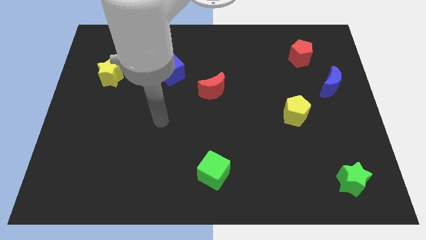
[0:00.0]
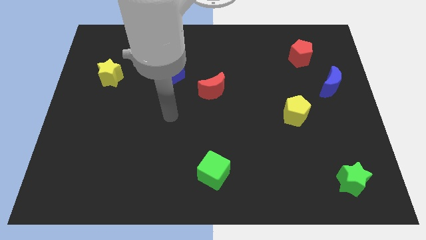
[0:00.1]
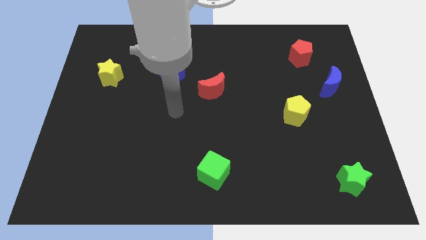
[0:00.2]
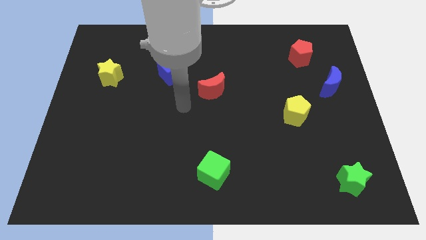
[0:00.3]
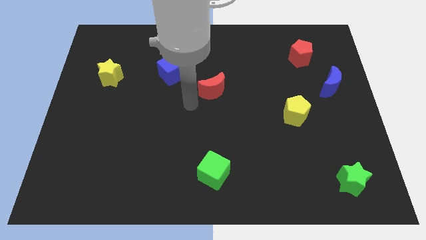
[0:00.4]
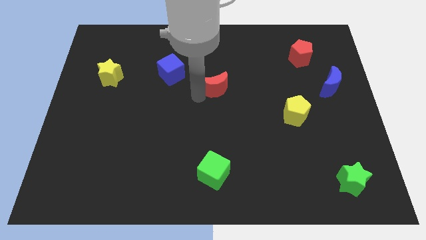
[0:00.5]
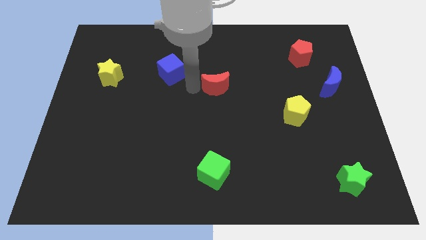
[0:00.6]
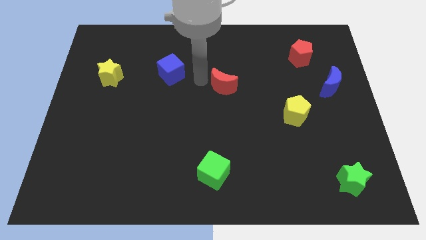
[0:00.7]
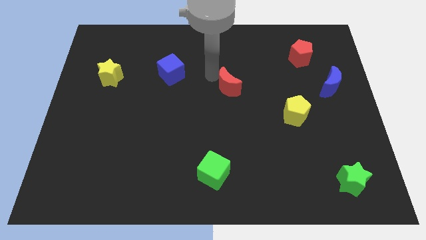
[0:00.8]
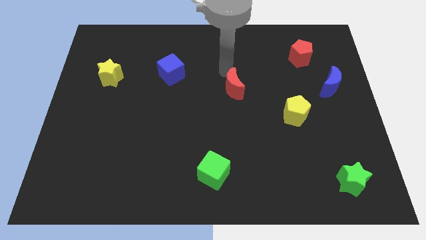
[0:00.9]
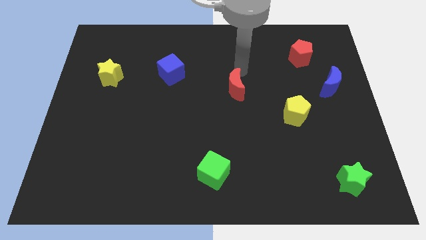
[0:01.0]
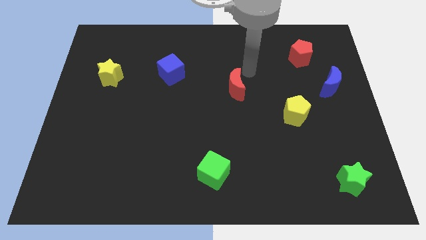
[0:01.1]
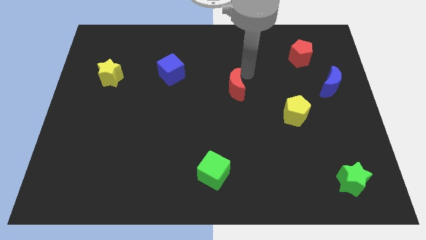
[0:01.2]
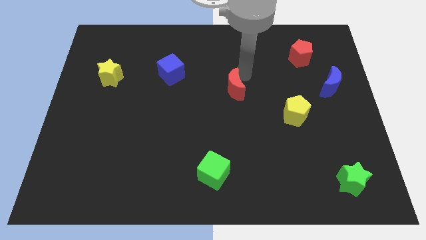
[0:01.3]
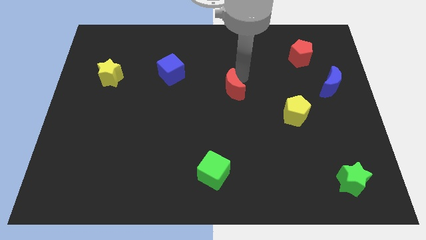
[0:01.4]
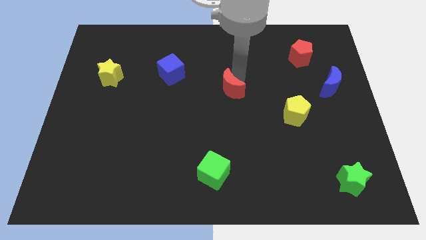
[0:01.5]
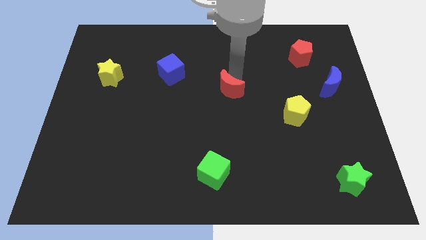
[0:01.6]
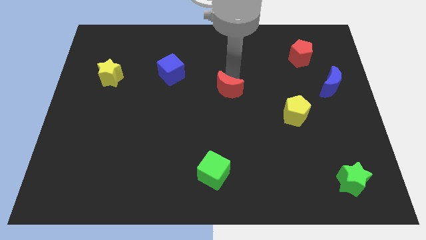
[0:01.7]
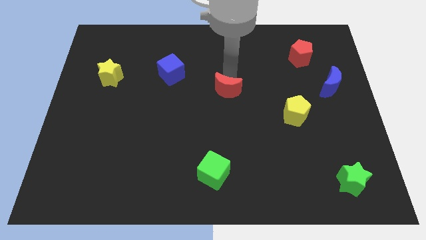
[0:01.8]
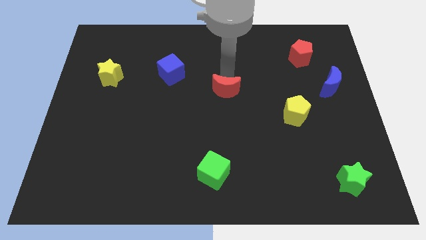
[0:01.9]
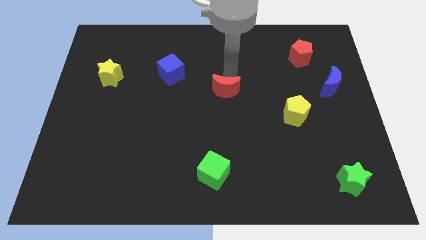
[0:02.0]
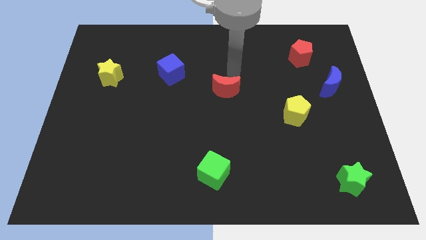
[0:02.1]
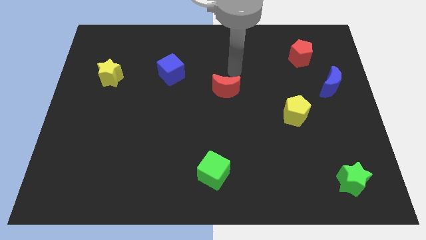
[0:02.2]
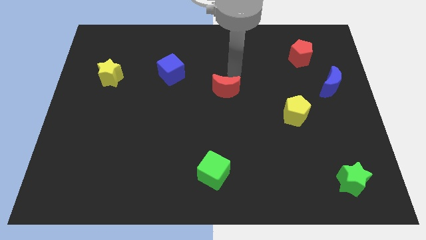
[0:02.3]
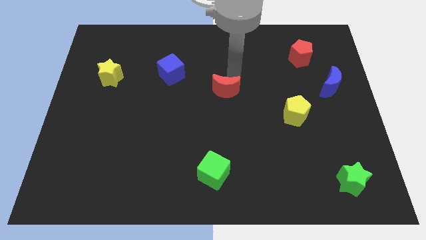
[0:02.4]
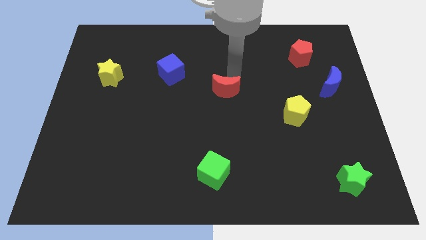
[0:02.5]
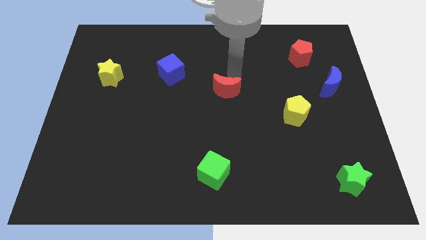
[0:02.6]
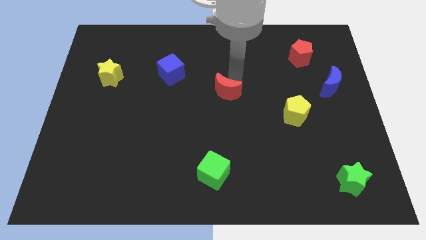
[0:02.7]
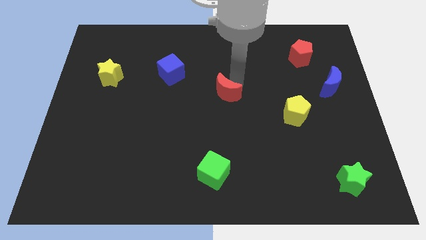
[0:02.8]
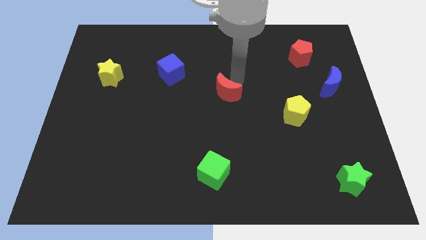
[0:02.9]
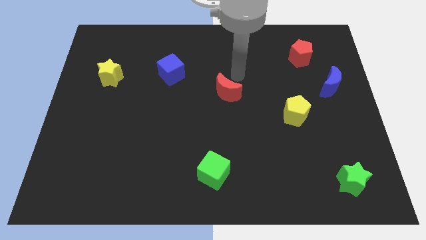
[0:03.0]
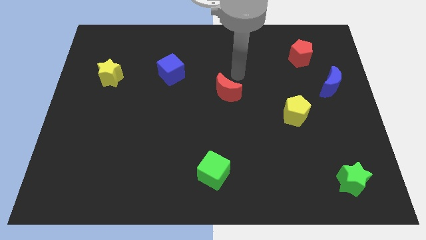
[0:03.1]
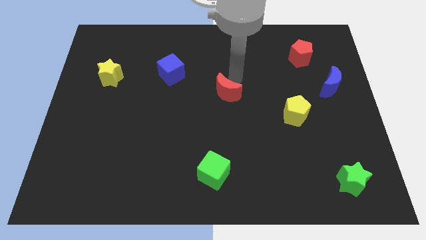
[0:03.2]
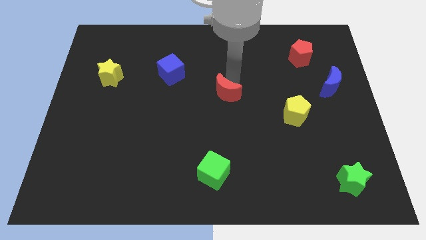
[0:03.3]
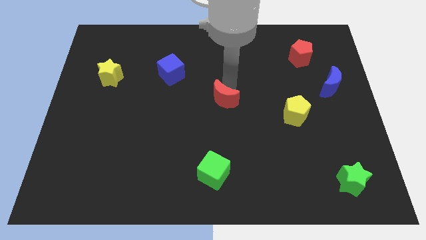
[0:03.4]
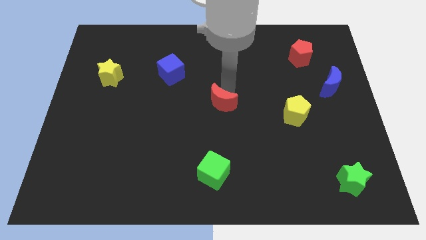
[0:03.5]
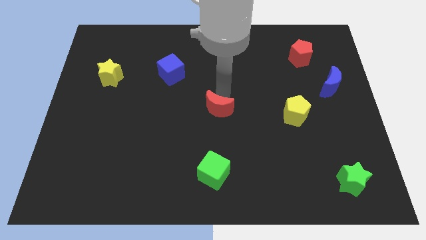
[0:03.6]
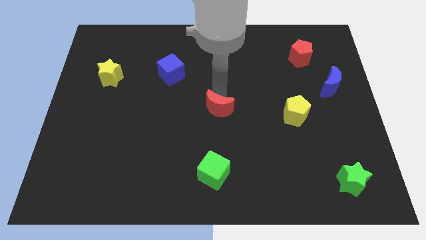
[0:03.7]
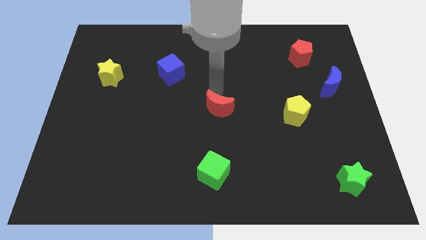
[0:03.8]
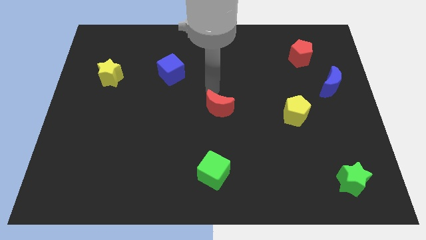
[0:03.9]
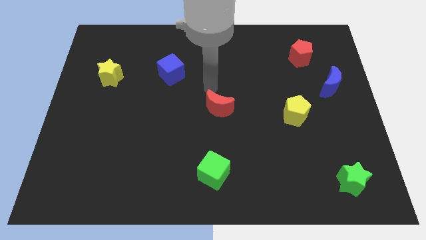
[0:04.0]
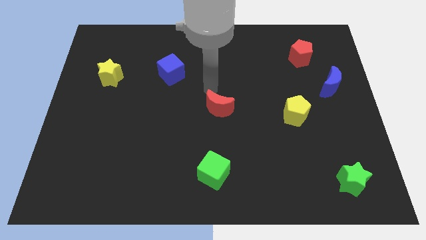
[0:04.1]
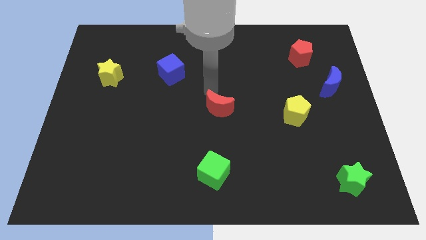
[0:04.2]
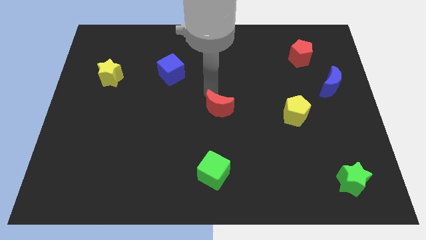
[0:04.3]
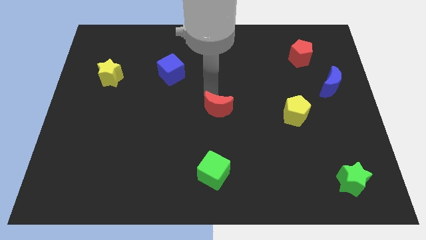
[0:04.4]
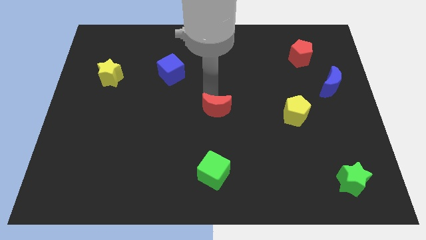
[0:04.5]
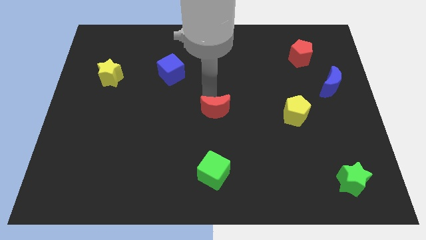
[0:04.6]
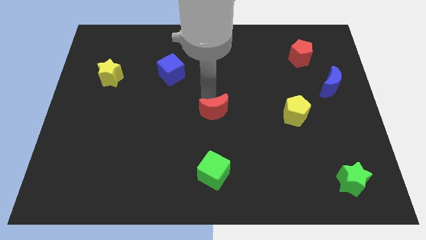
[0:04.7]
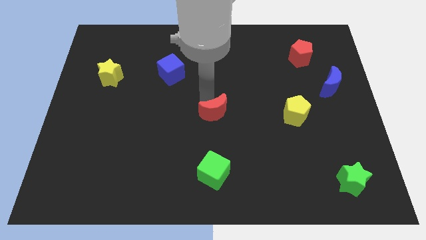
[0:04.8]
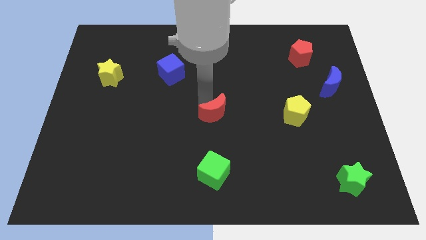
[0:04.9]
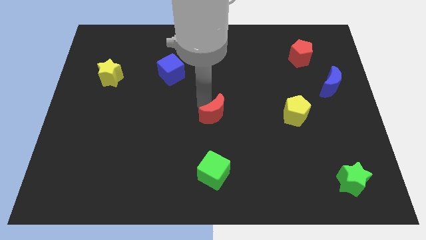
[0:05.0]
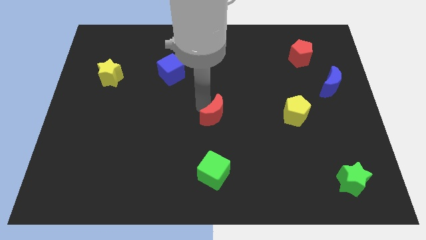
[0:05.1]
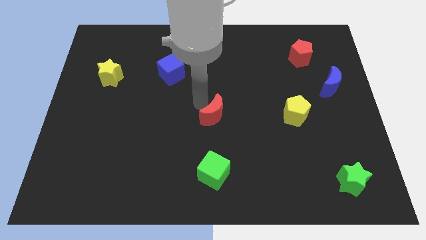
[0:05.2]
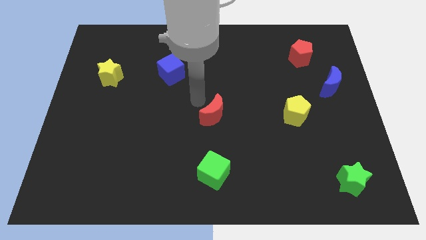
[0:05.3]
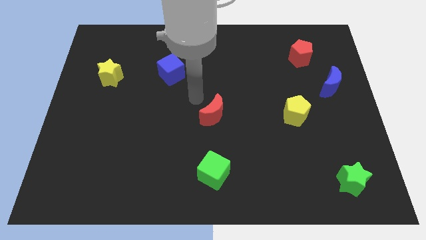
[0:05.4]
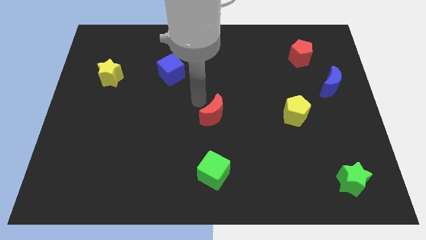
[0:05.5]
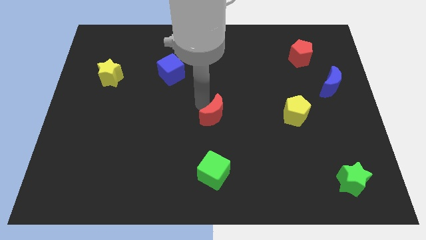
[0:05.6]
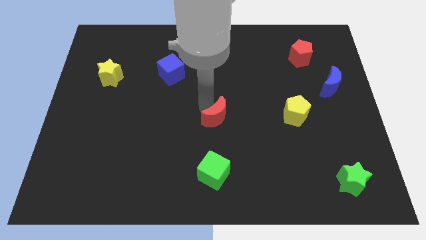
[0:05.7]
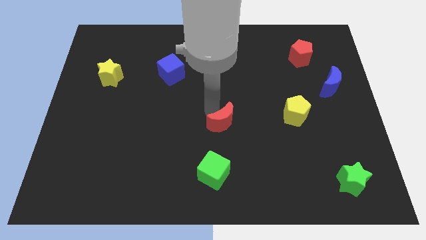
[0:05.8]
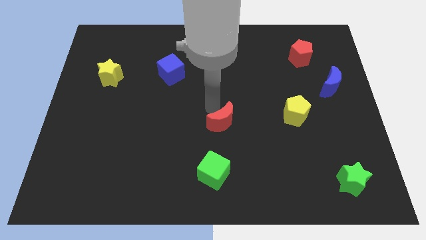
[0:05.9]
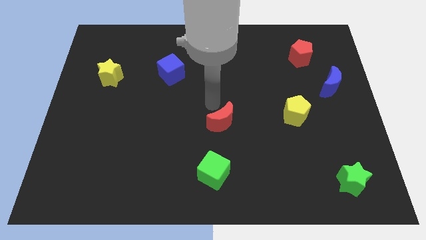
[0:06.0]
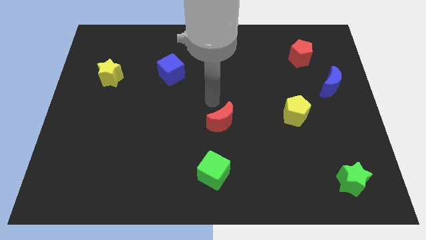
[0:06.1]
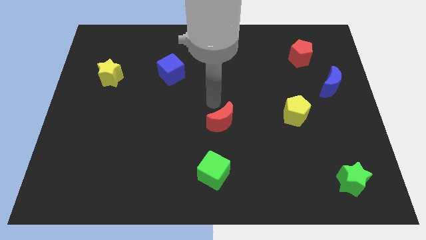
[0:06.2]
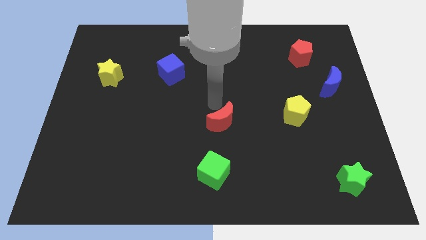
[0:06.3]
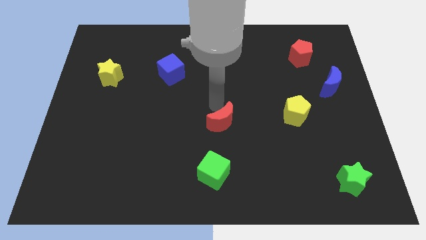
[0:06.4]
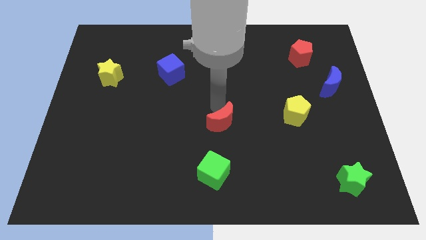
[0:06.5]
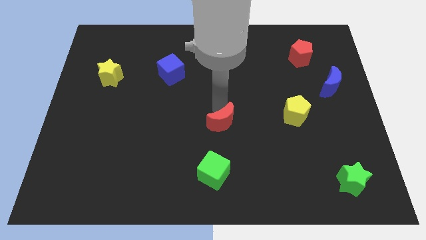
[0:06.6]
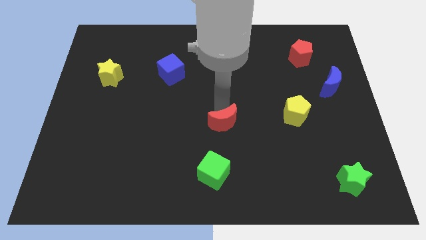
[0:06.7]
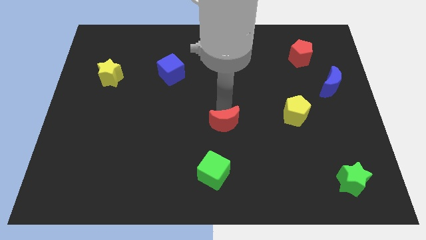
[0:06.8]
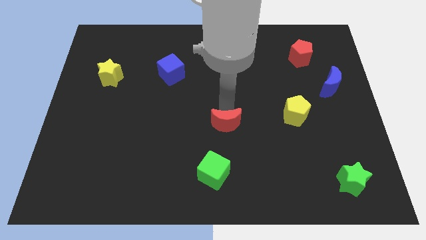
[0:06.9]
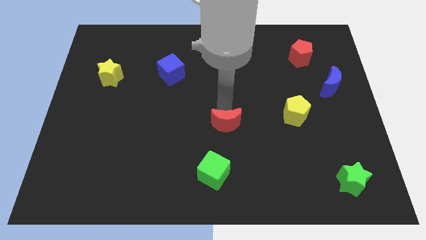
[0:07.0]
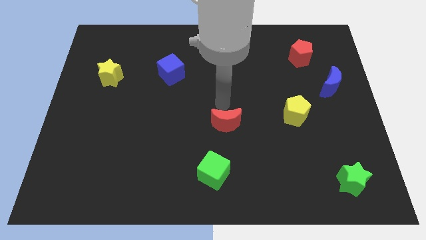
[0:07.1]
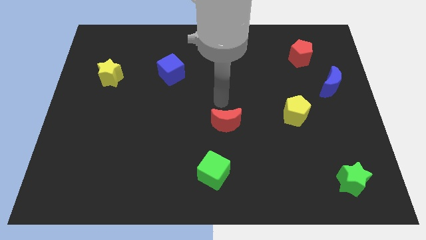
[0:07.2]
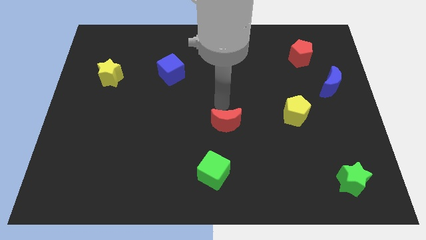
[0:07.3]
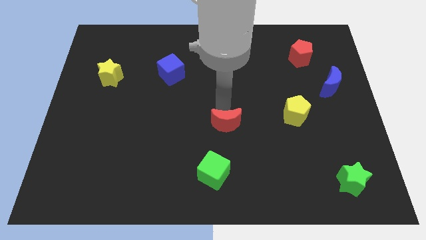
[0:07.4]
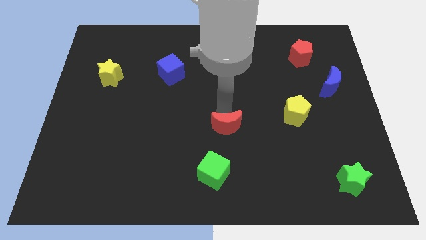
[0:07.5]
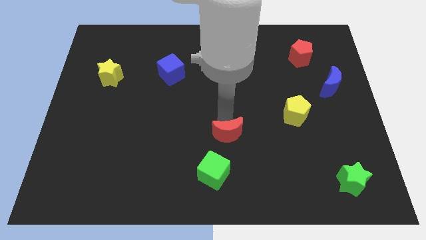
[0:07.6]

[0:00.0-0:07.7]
slide the red moon to the top right side of the green cube
